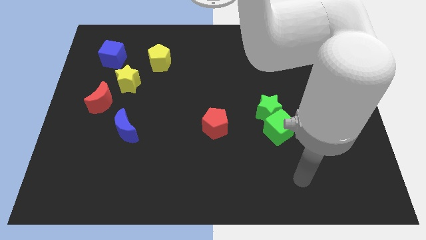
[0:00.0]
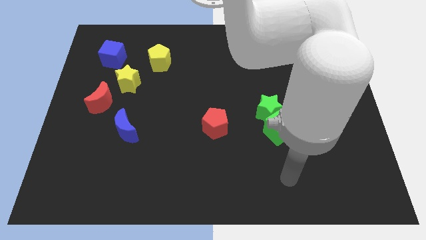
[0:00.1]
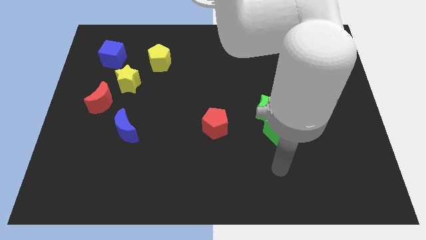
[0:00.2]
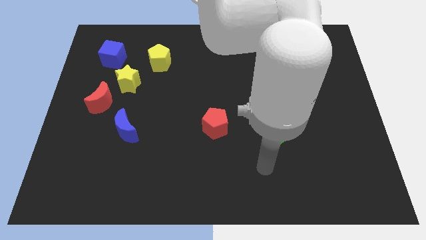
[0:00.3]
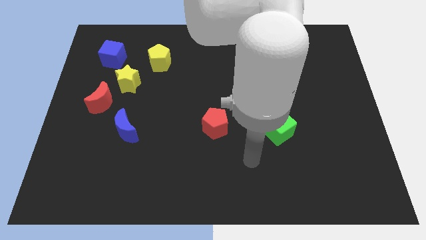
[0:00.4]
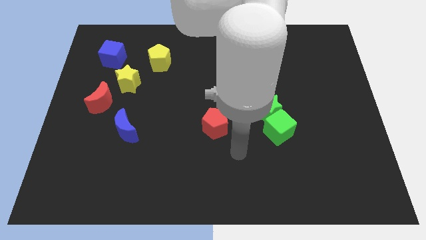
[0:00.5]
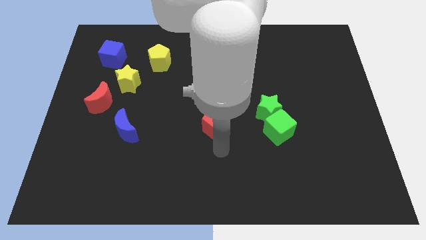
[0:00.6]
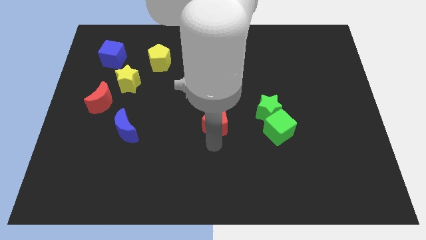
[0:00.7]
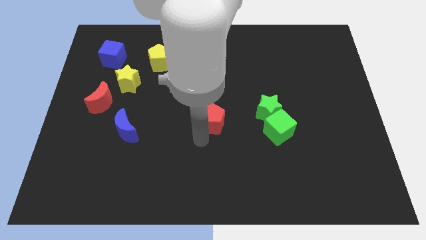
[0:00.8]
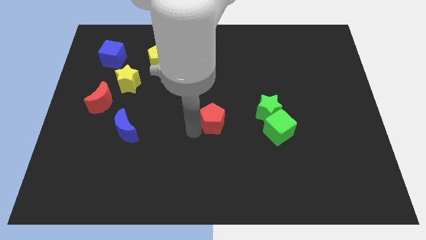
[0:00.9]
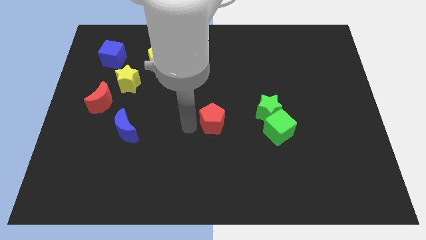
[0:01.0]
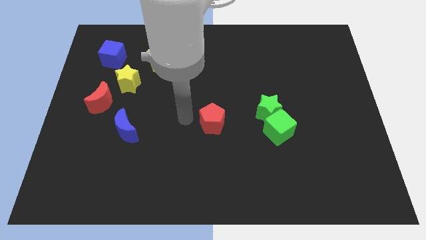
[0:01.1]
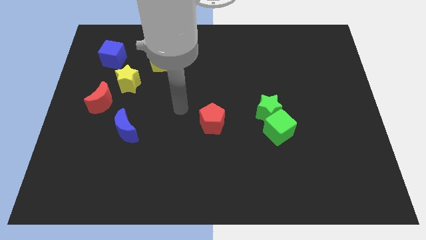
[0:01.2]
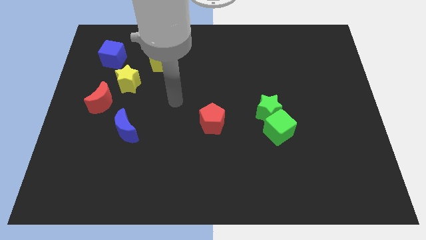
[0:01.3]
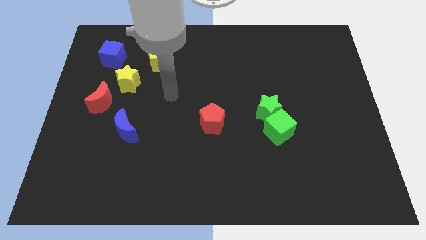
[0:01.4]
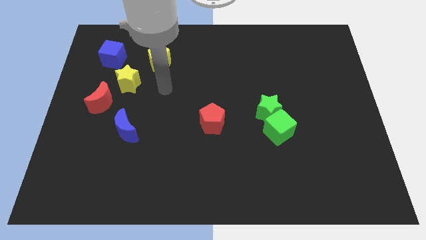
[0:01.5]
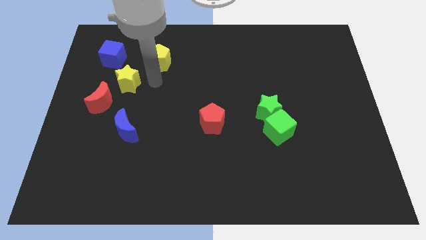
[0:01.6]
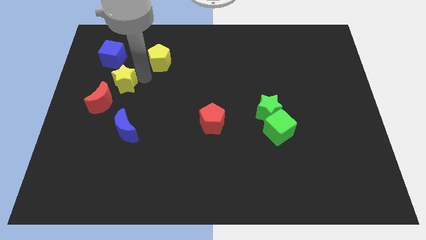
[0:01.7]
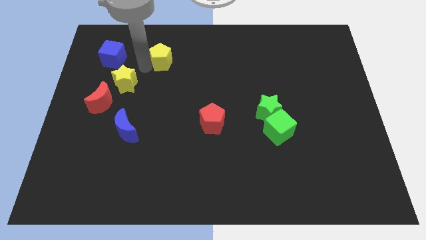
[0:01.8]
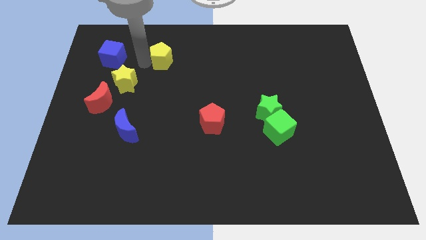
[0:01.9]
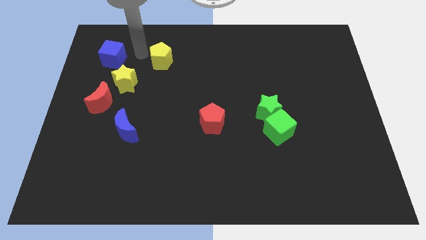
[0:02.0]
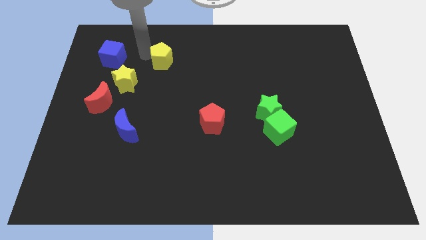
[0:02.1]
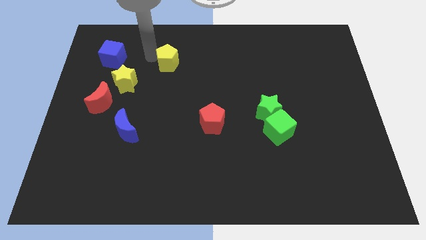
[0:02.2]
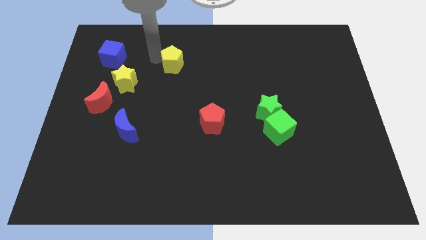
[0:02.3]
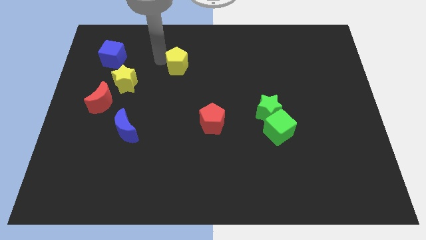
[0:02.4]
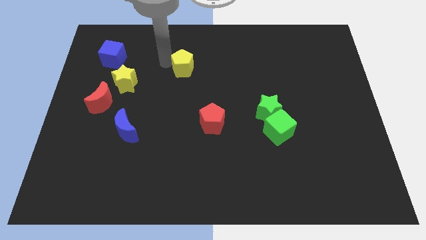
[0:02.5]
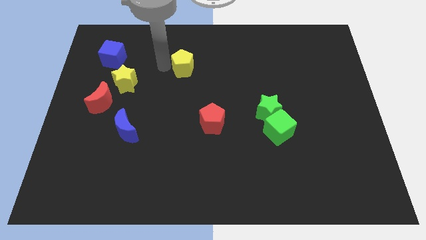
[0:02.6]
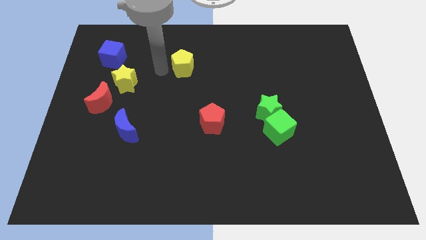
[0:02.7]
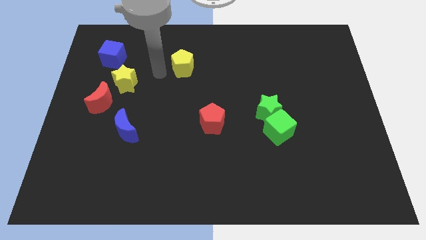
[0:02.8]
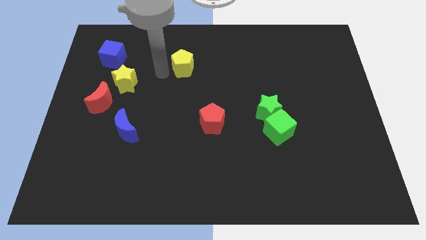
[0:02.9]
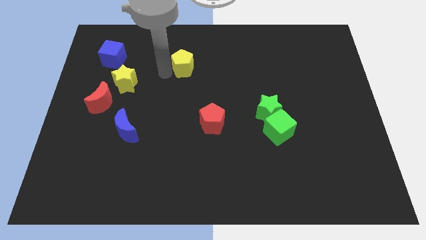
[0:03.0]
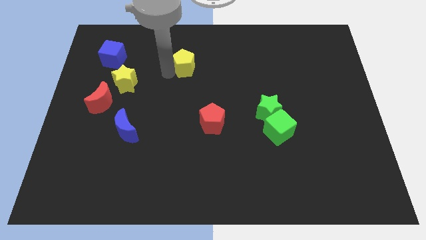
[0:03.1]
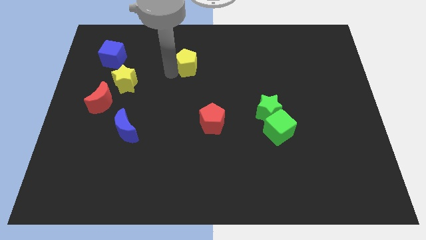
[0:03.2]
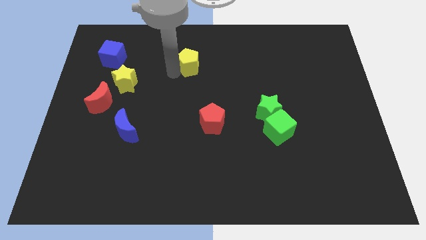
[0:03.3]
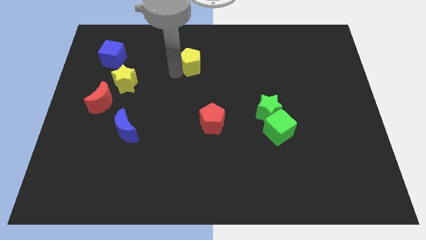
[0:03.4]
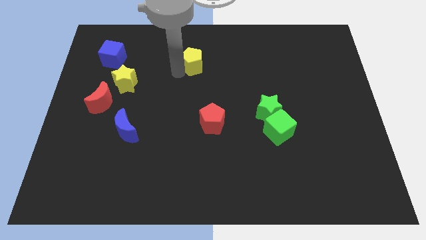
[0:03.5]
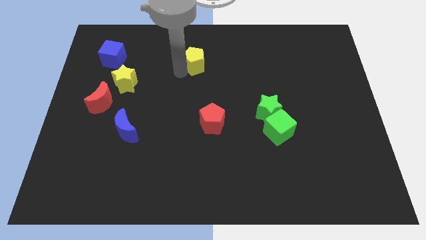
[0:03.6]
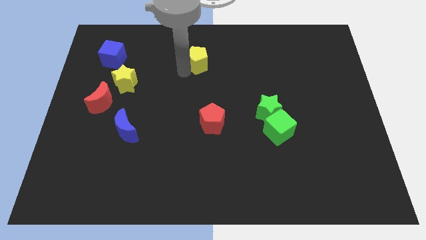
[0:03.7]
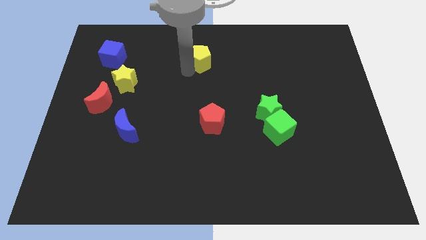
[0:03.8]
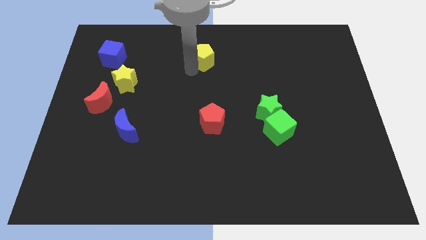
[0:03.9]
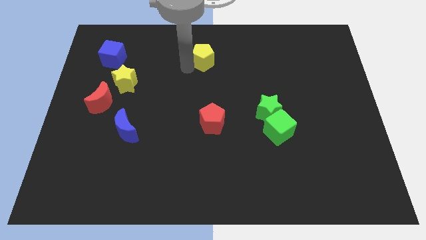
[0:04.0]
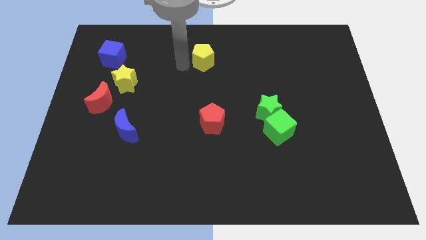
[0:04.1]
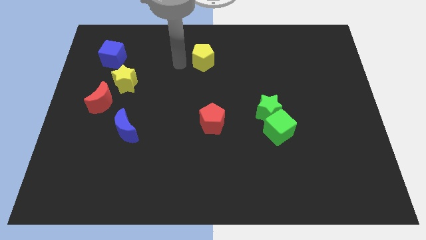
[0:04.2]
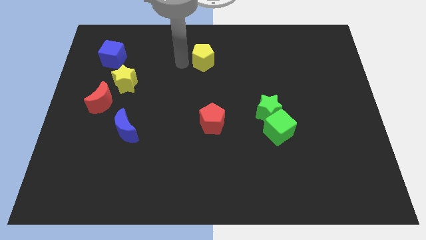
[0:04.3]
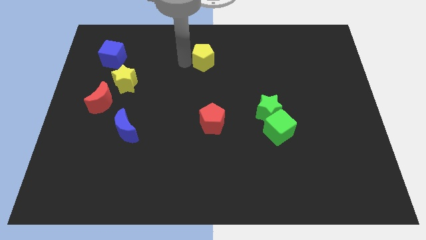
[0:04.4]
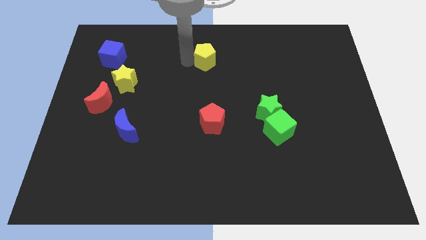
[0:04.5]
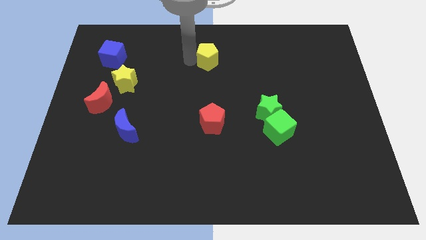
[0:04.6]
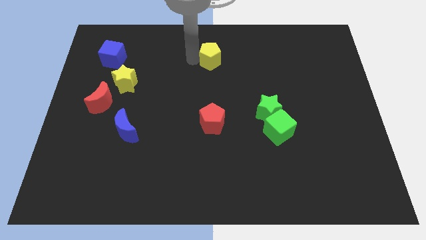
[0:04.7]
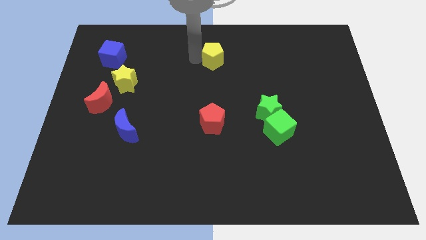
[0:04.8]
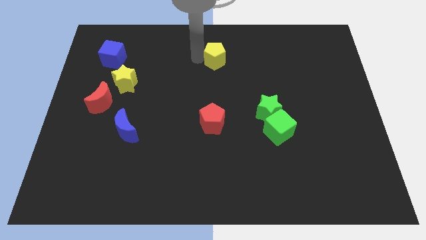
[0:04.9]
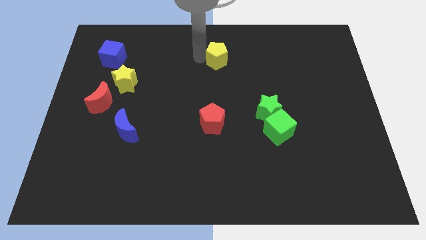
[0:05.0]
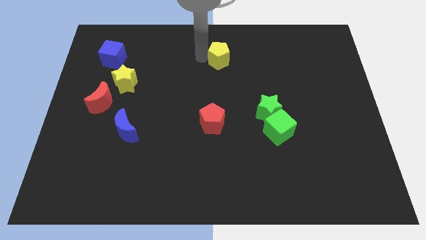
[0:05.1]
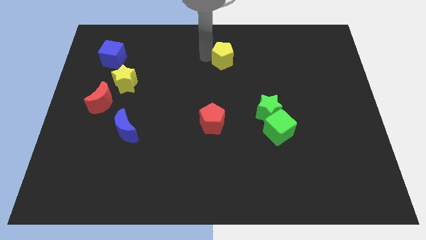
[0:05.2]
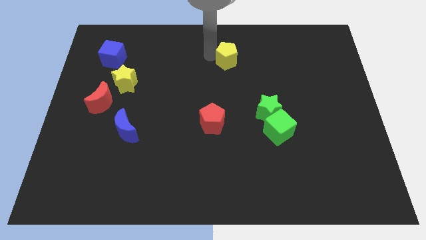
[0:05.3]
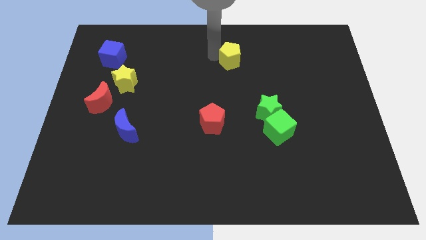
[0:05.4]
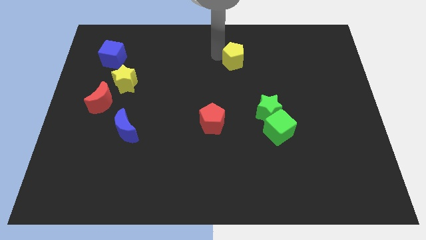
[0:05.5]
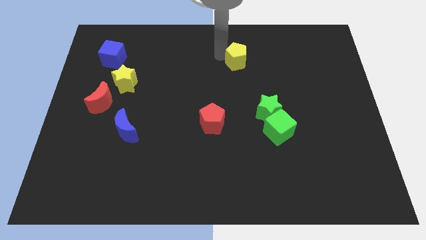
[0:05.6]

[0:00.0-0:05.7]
push the yellow pentagon right

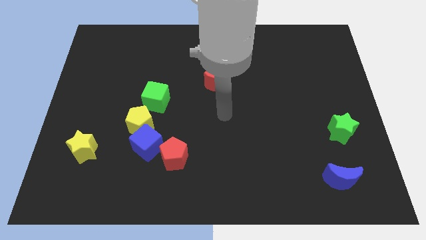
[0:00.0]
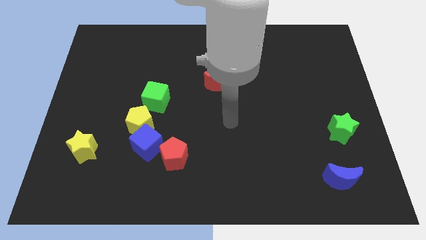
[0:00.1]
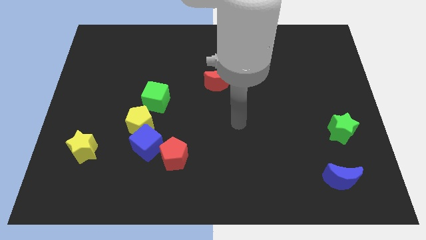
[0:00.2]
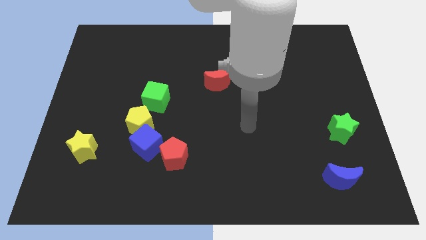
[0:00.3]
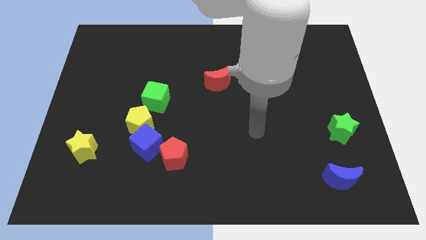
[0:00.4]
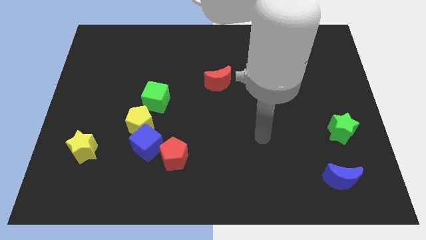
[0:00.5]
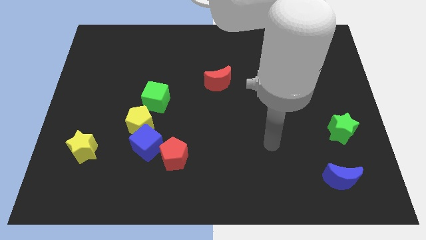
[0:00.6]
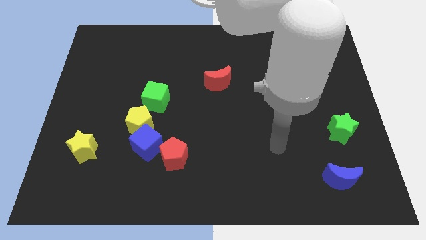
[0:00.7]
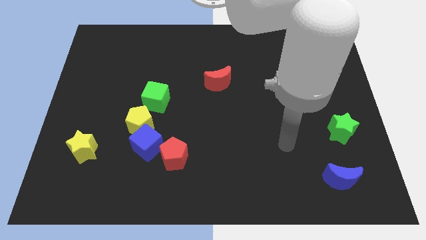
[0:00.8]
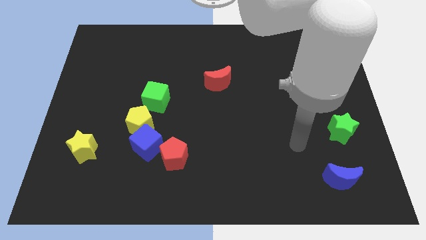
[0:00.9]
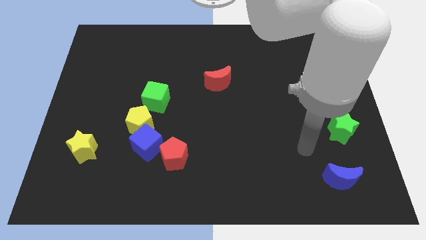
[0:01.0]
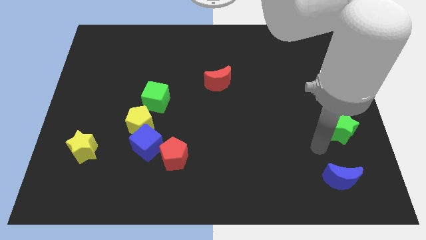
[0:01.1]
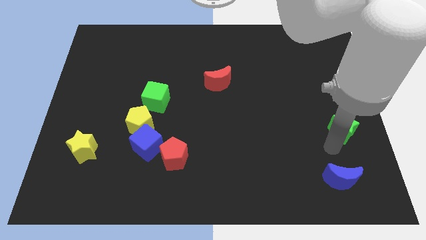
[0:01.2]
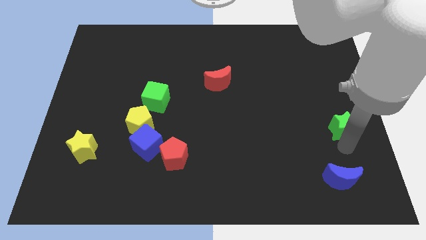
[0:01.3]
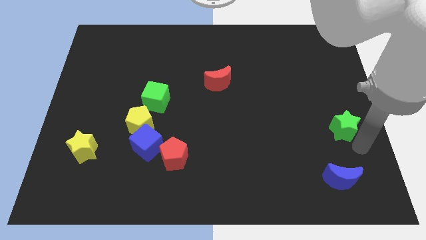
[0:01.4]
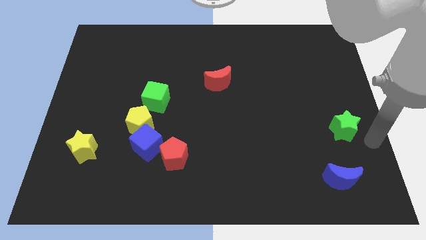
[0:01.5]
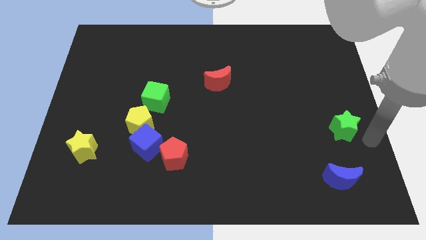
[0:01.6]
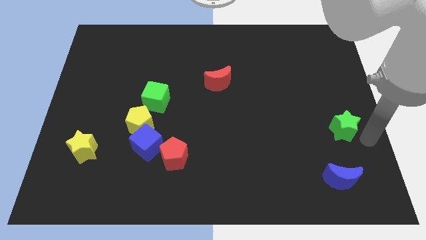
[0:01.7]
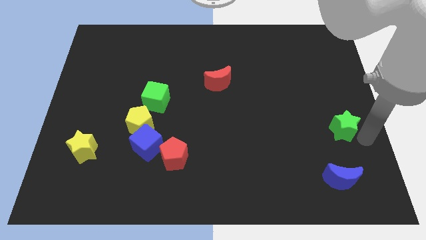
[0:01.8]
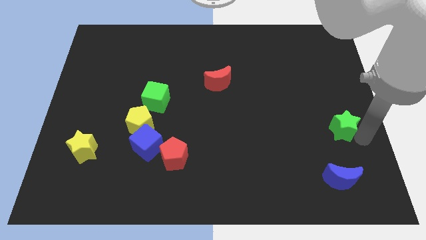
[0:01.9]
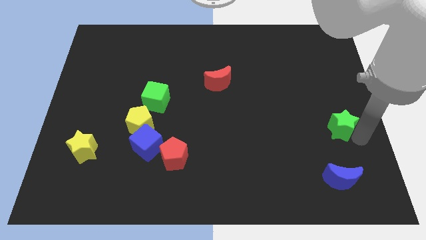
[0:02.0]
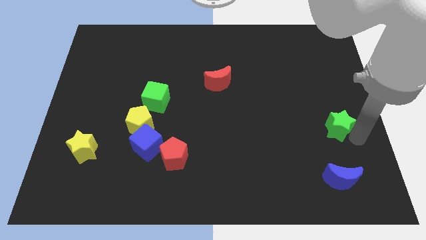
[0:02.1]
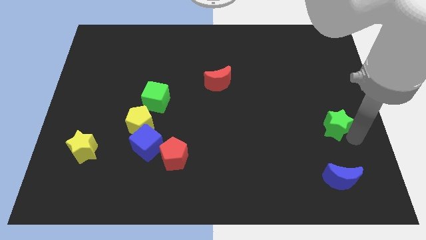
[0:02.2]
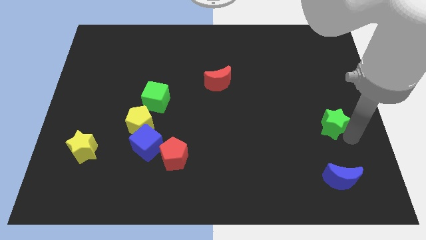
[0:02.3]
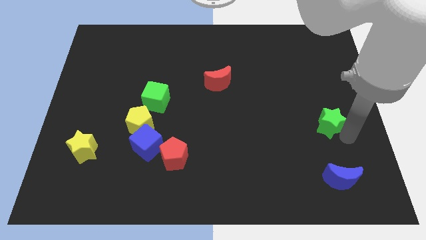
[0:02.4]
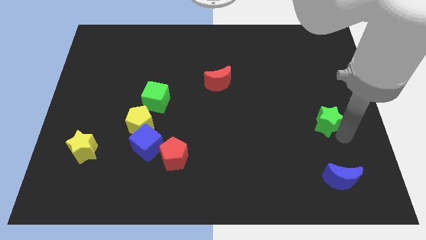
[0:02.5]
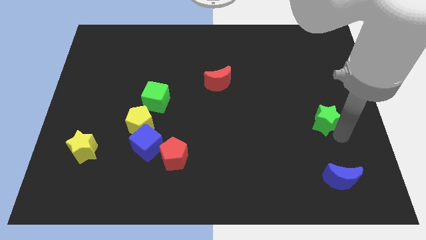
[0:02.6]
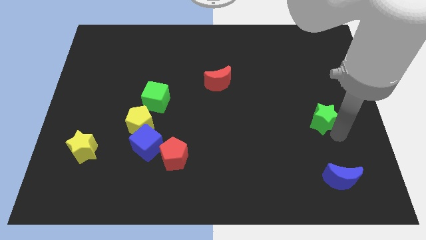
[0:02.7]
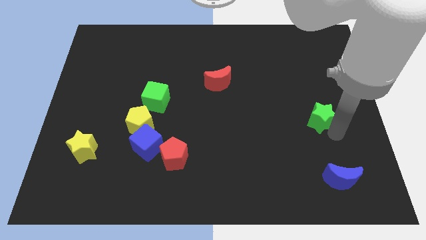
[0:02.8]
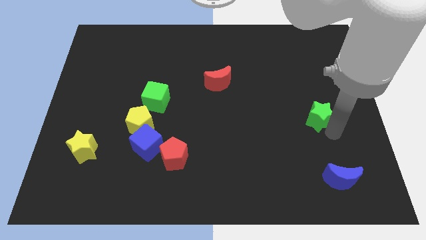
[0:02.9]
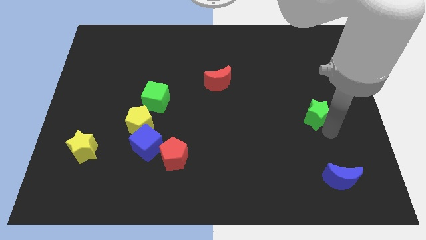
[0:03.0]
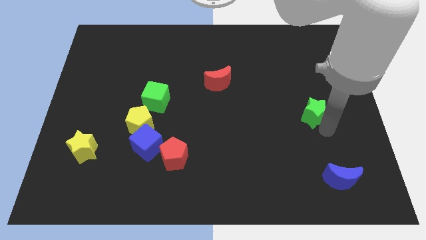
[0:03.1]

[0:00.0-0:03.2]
slightly slide the green star up and left diagonally
